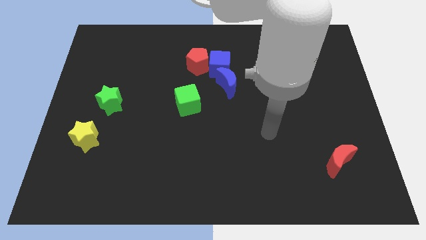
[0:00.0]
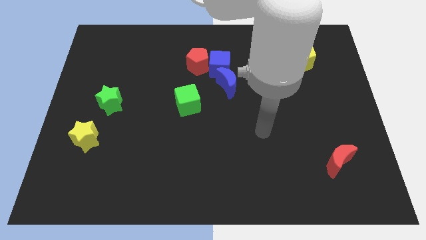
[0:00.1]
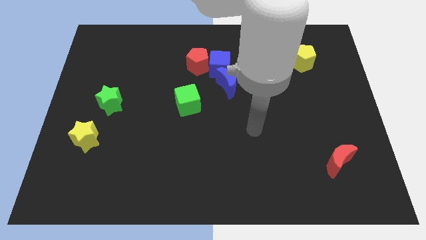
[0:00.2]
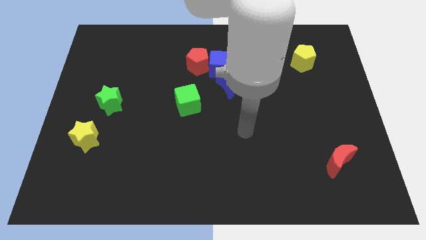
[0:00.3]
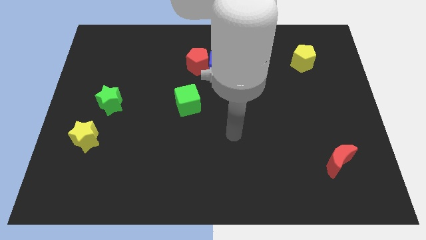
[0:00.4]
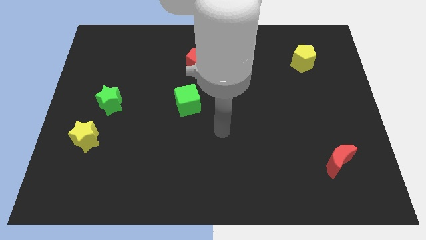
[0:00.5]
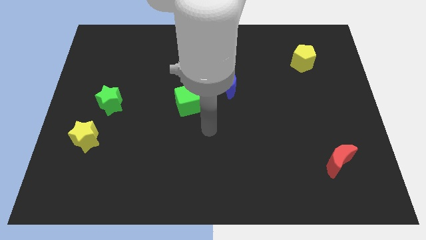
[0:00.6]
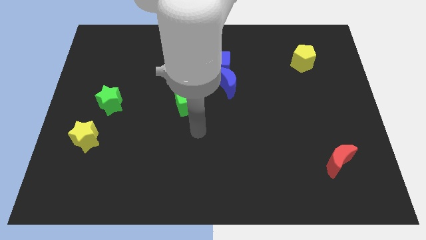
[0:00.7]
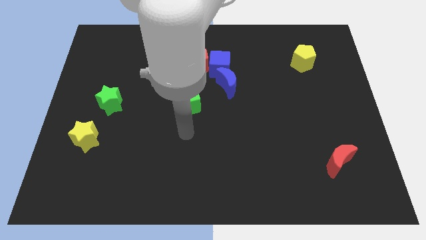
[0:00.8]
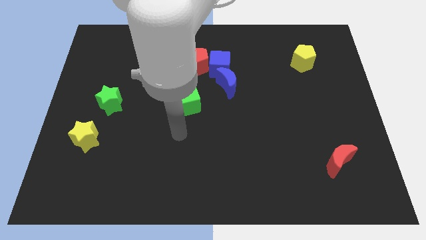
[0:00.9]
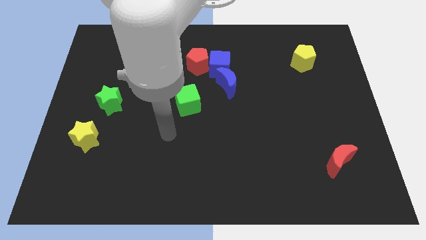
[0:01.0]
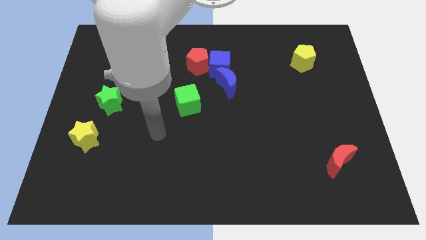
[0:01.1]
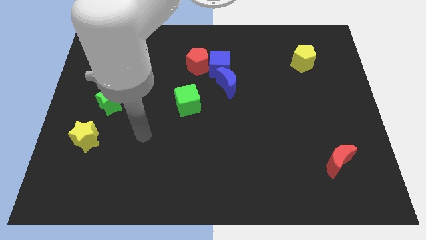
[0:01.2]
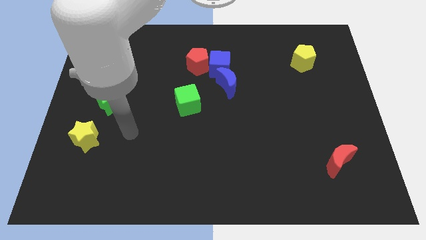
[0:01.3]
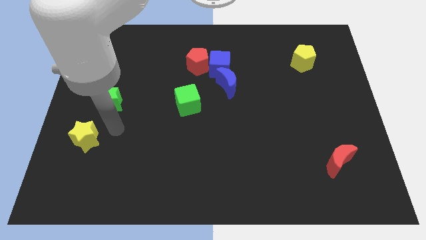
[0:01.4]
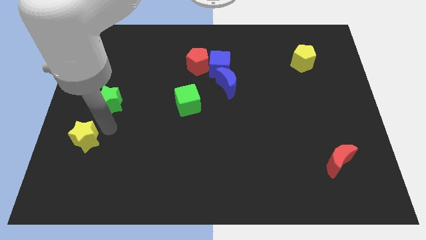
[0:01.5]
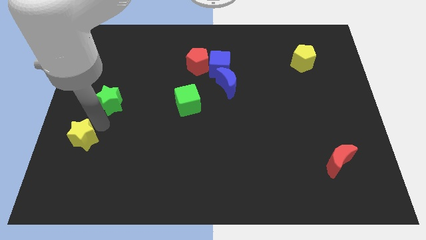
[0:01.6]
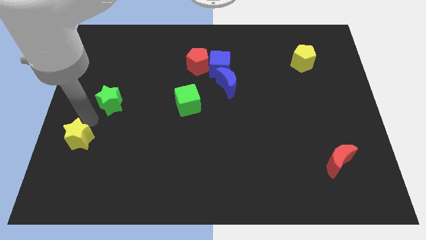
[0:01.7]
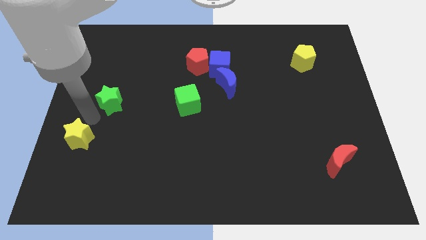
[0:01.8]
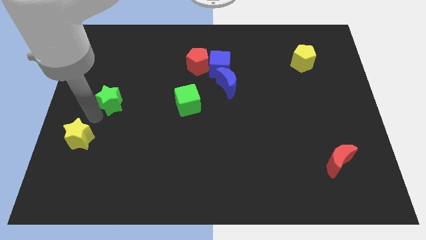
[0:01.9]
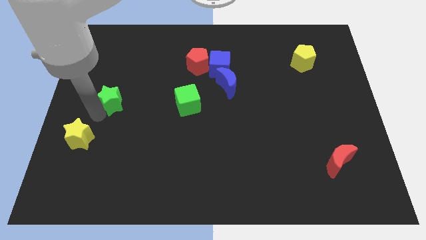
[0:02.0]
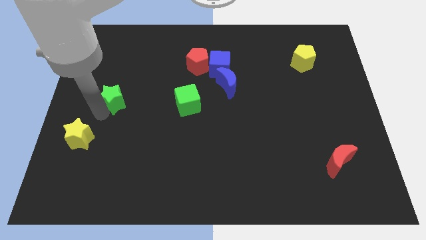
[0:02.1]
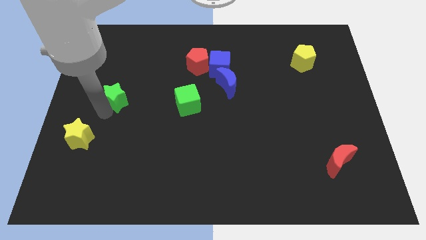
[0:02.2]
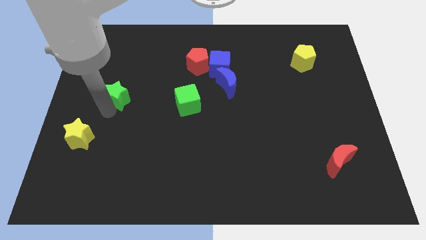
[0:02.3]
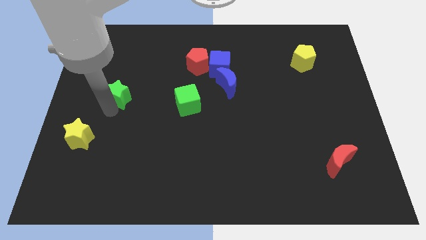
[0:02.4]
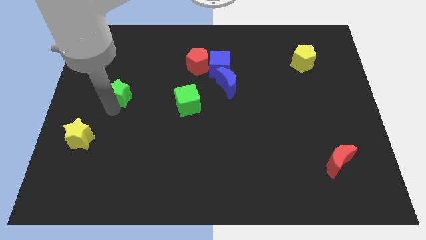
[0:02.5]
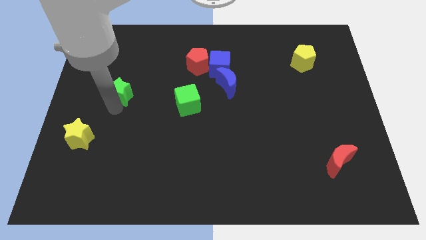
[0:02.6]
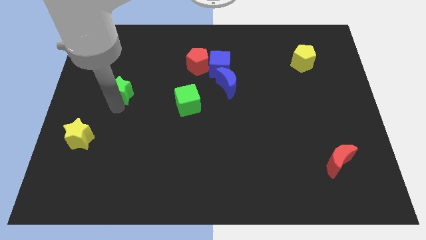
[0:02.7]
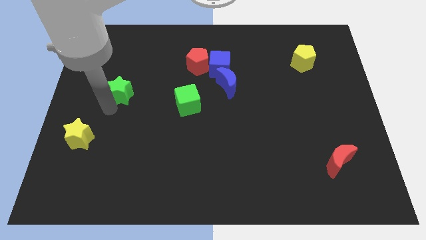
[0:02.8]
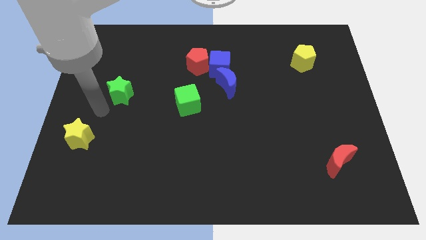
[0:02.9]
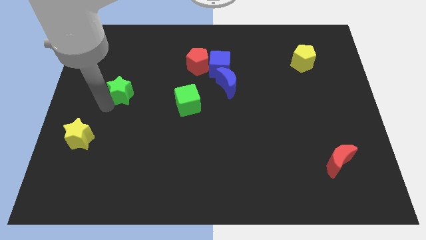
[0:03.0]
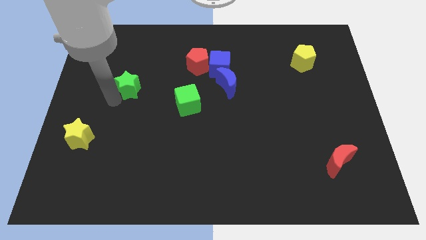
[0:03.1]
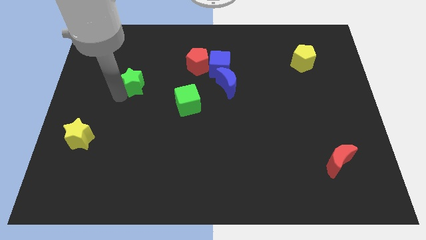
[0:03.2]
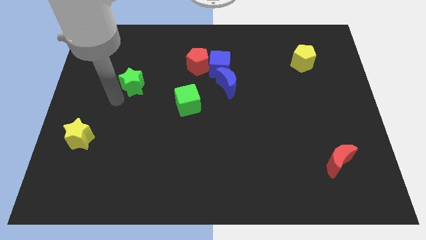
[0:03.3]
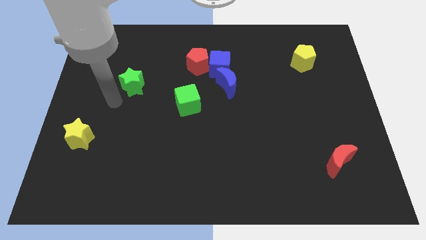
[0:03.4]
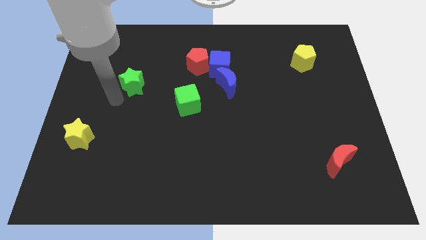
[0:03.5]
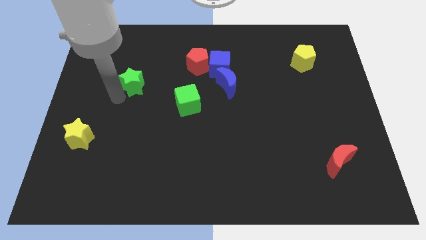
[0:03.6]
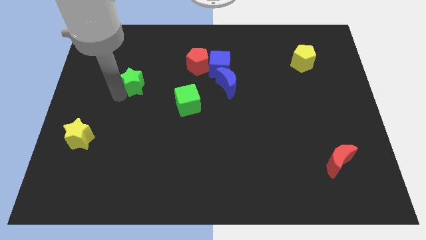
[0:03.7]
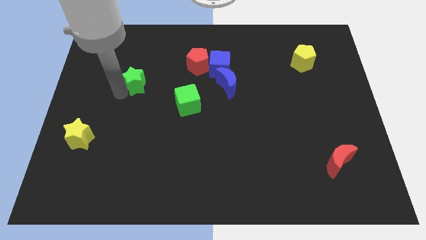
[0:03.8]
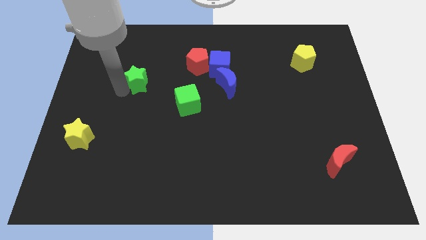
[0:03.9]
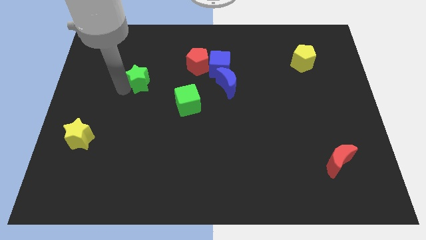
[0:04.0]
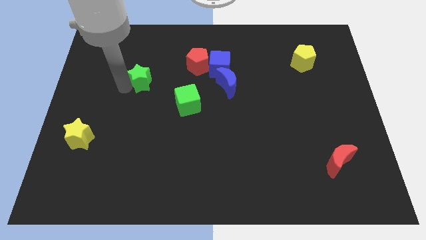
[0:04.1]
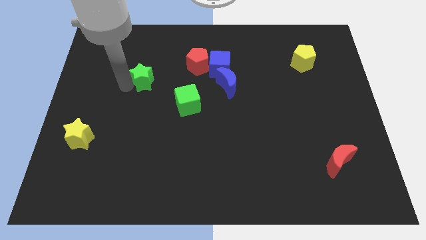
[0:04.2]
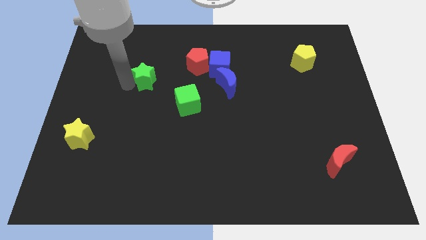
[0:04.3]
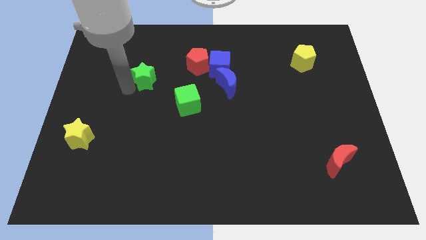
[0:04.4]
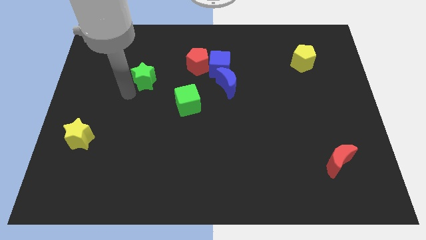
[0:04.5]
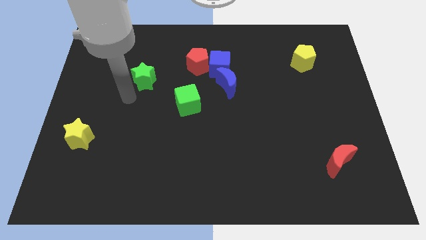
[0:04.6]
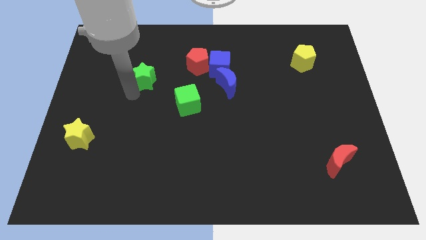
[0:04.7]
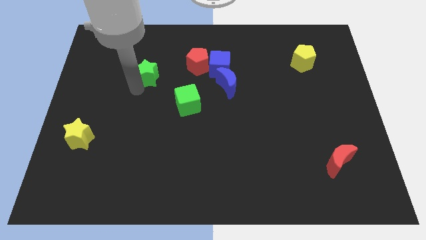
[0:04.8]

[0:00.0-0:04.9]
move the green star left of the red pentagon

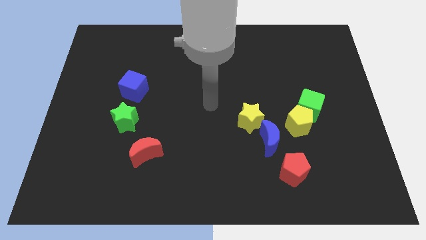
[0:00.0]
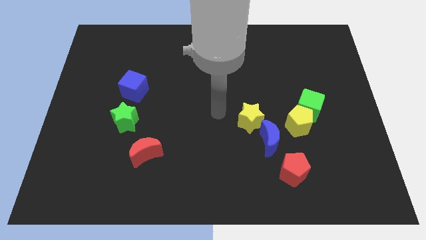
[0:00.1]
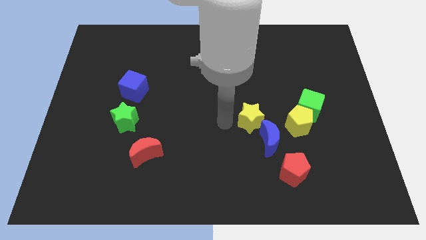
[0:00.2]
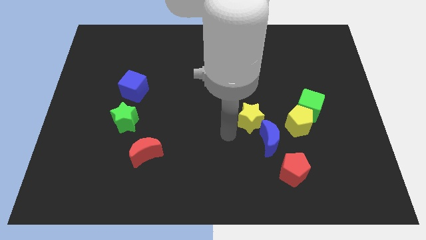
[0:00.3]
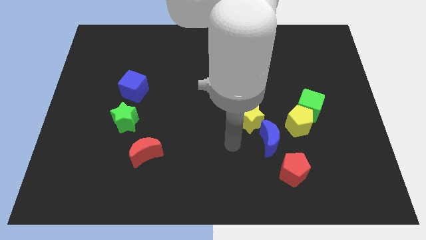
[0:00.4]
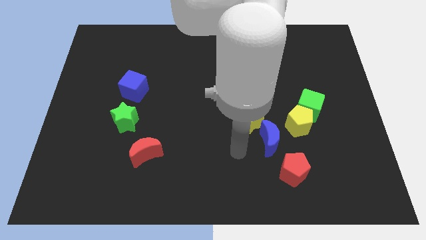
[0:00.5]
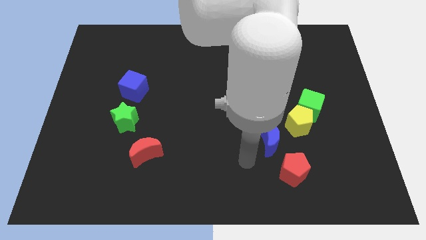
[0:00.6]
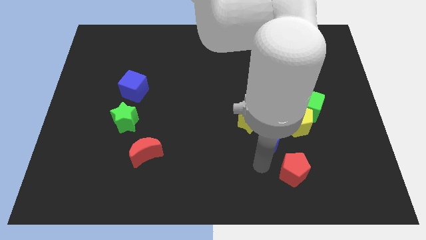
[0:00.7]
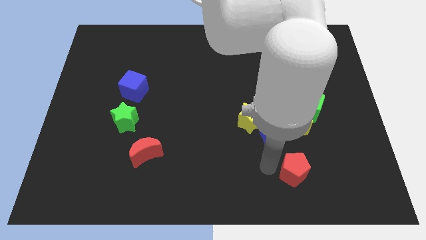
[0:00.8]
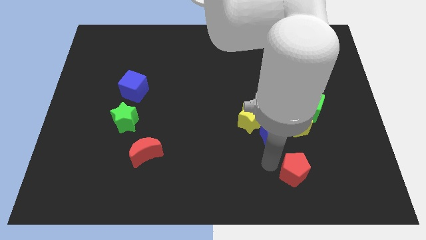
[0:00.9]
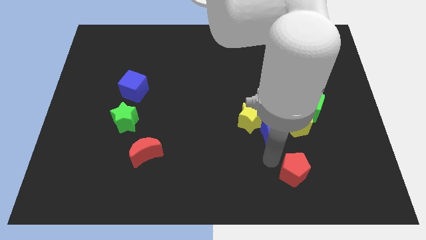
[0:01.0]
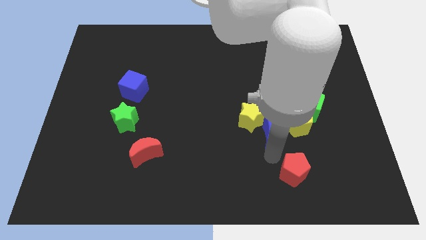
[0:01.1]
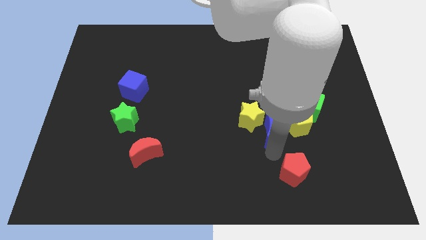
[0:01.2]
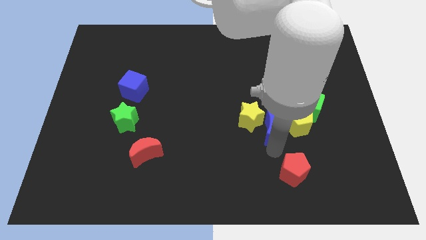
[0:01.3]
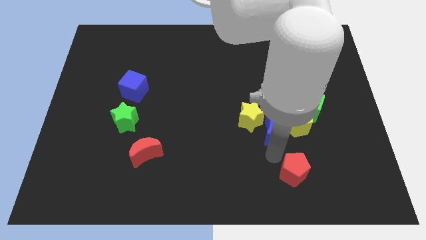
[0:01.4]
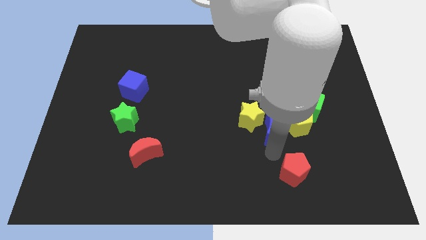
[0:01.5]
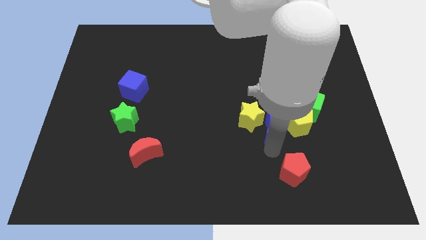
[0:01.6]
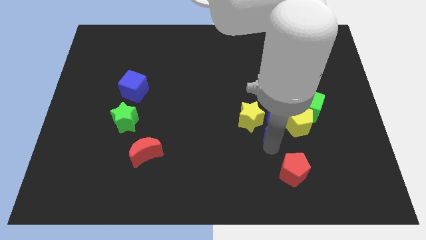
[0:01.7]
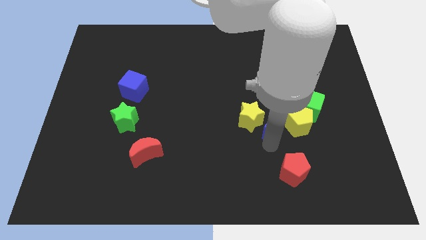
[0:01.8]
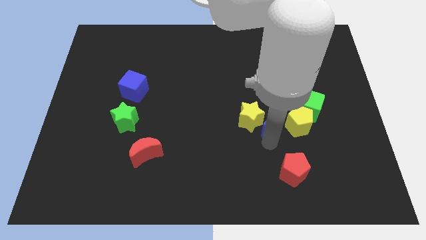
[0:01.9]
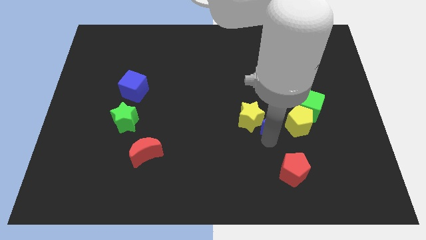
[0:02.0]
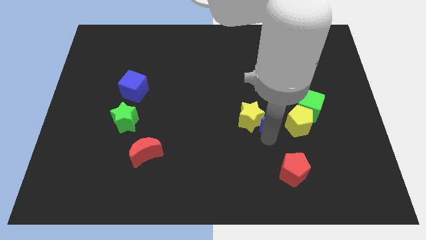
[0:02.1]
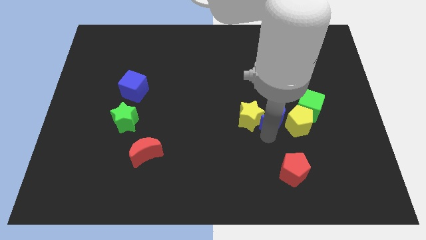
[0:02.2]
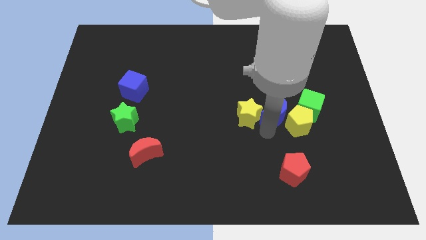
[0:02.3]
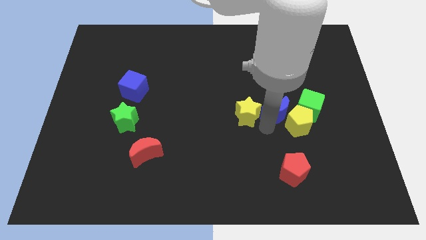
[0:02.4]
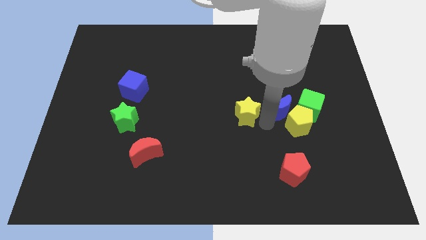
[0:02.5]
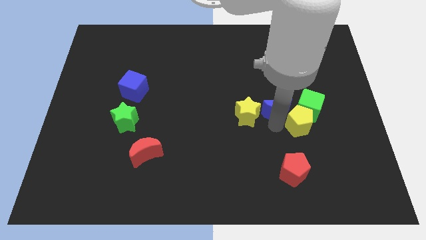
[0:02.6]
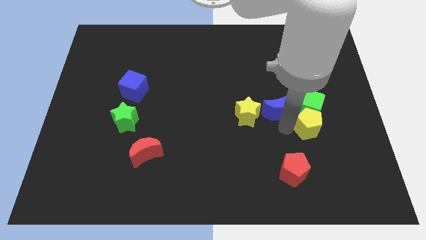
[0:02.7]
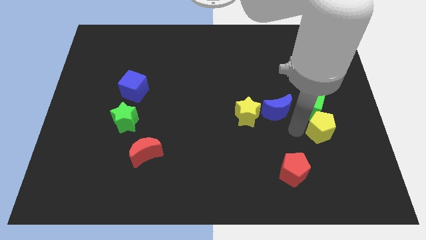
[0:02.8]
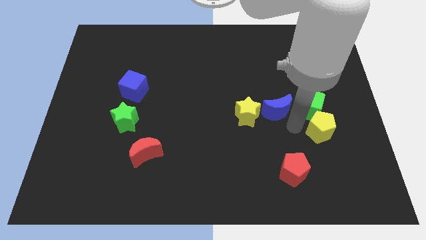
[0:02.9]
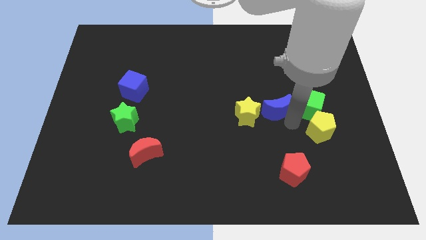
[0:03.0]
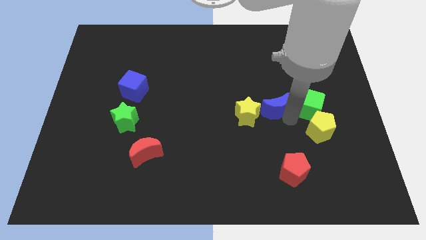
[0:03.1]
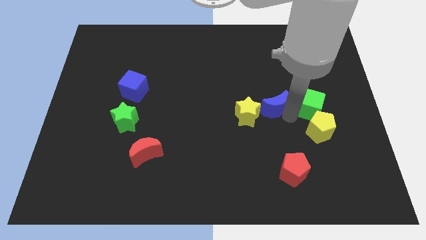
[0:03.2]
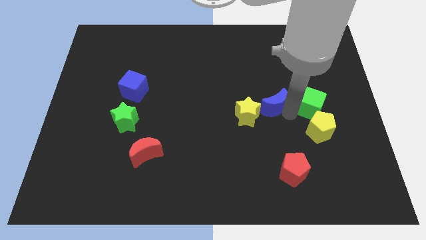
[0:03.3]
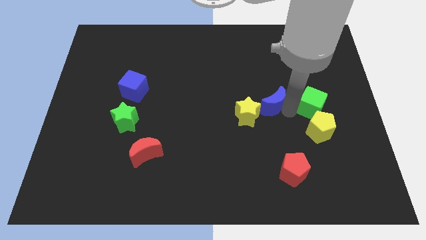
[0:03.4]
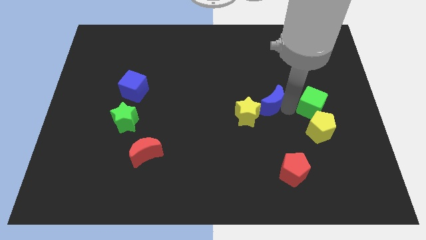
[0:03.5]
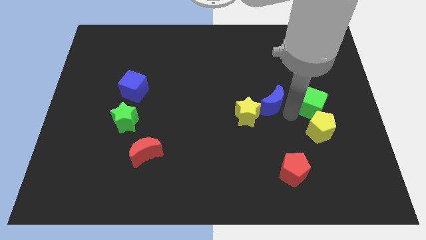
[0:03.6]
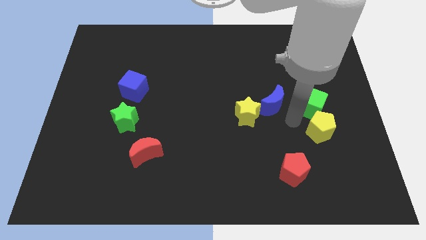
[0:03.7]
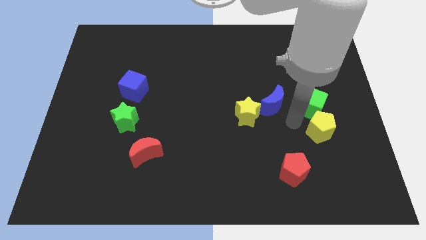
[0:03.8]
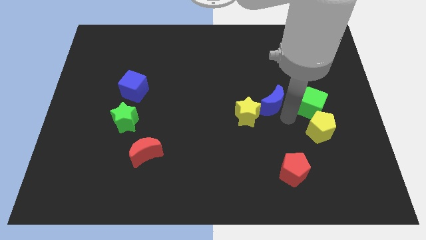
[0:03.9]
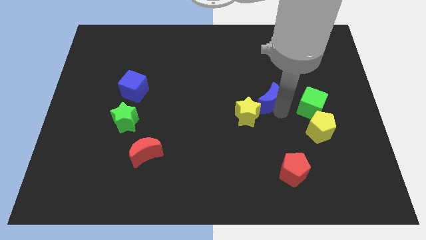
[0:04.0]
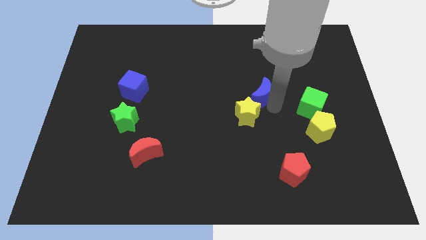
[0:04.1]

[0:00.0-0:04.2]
slide the blue moon above the yellow star
